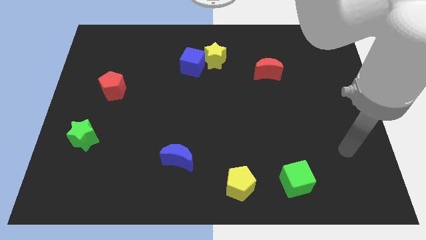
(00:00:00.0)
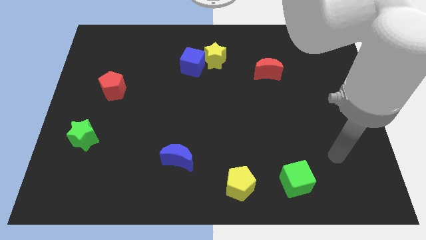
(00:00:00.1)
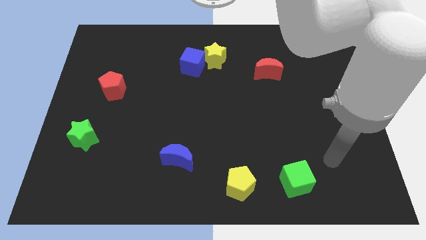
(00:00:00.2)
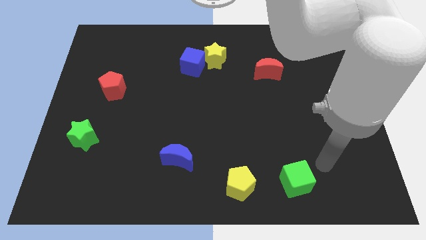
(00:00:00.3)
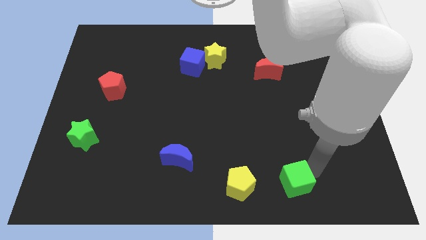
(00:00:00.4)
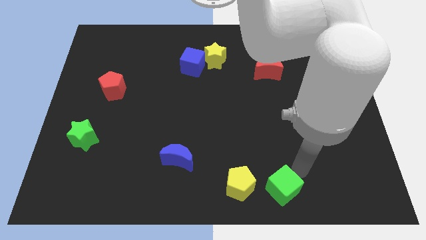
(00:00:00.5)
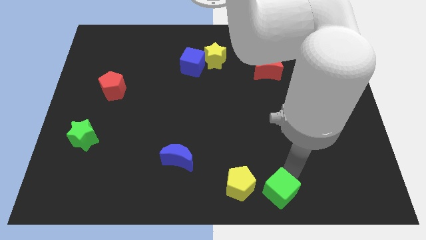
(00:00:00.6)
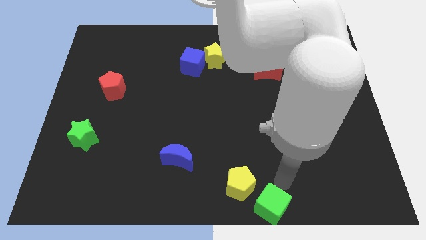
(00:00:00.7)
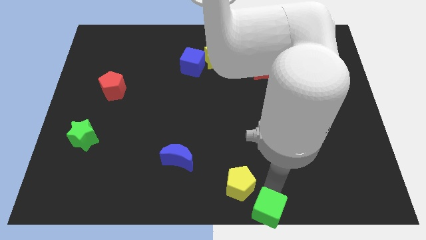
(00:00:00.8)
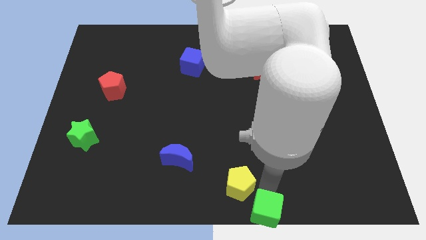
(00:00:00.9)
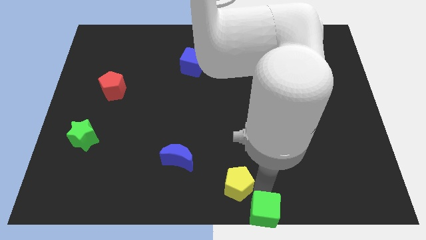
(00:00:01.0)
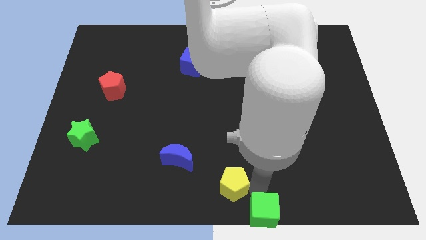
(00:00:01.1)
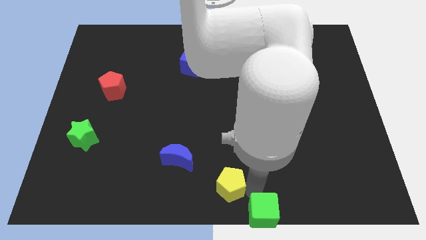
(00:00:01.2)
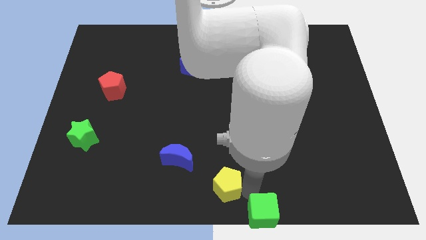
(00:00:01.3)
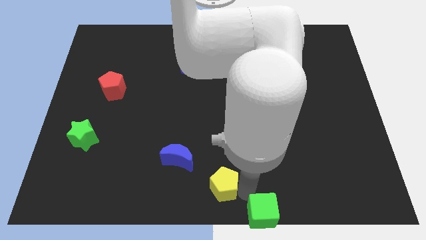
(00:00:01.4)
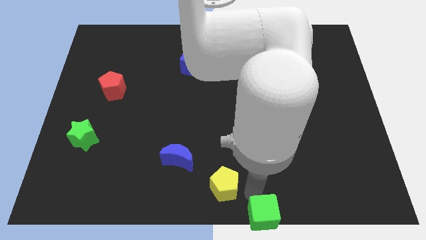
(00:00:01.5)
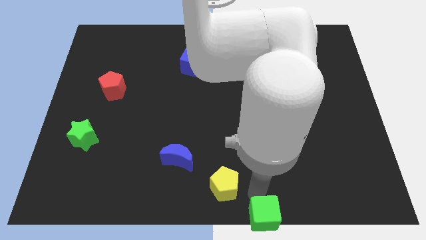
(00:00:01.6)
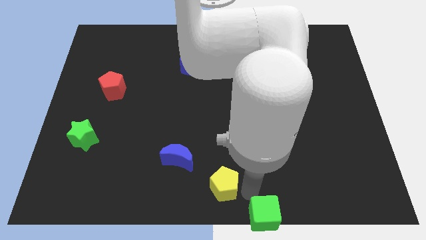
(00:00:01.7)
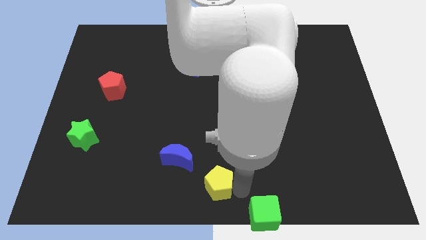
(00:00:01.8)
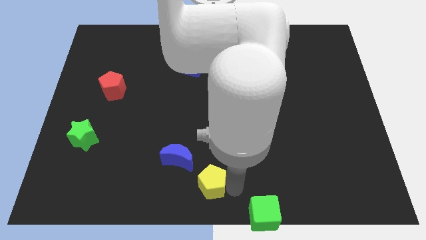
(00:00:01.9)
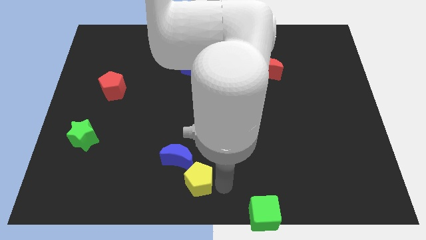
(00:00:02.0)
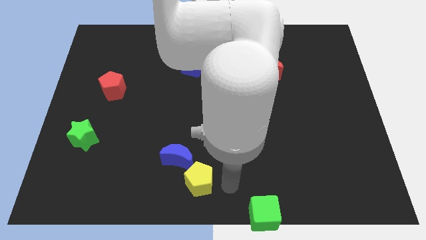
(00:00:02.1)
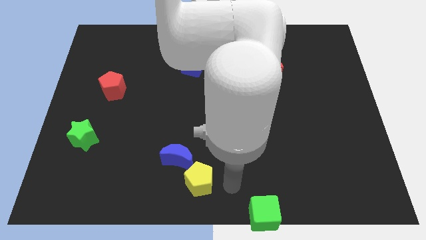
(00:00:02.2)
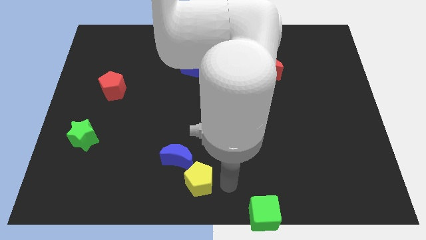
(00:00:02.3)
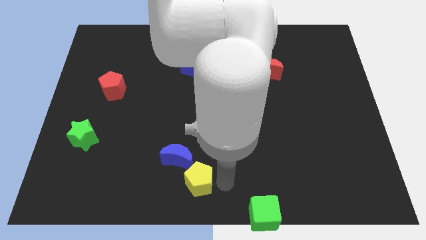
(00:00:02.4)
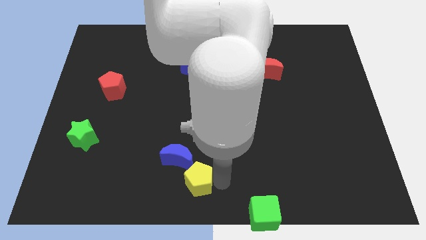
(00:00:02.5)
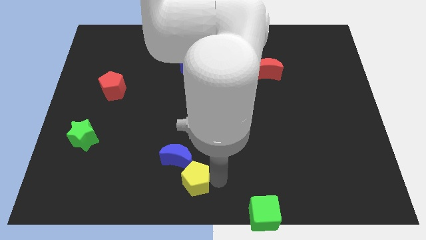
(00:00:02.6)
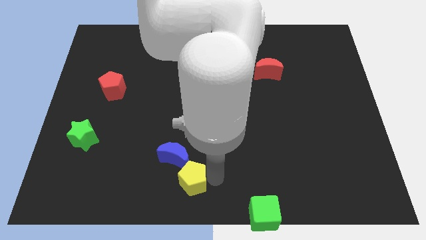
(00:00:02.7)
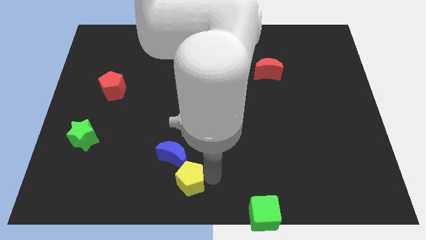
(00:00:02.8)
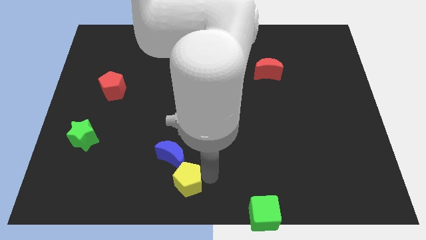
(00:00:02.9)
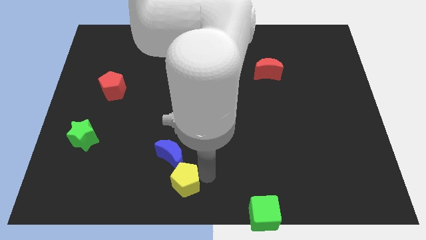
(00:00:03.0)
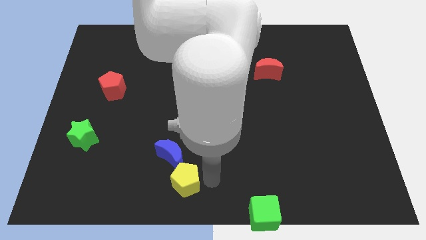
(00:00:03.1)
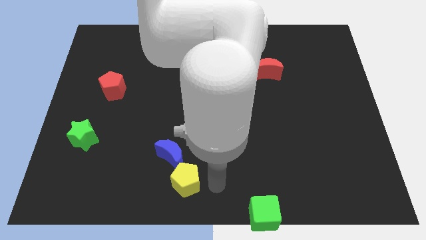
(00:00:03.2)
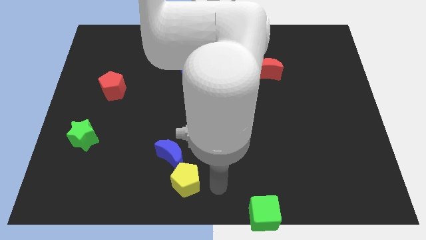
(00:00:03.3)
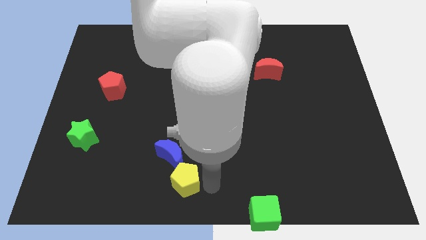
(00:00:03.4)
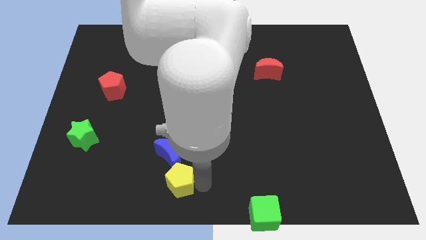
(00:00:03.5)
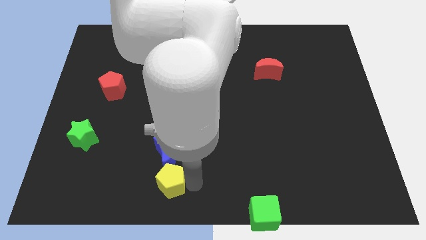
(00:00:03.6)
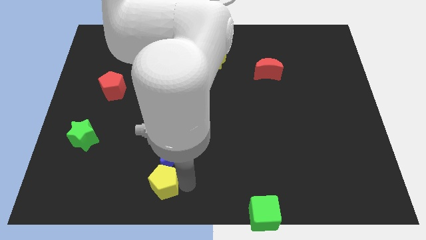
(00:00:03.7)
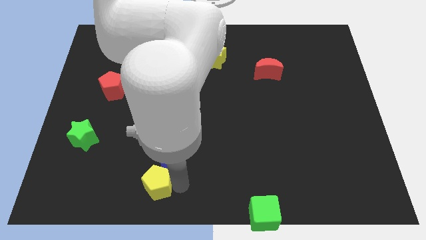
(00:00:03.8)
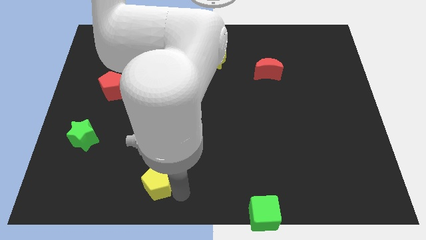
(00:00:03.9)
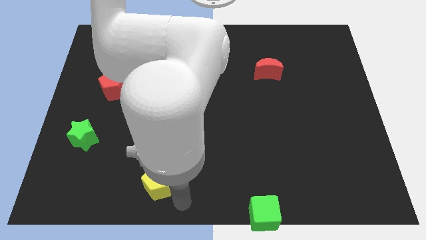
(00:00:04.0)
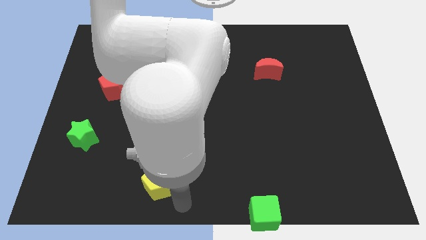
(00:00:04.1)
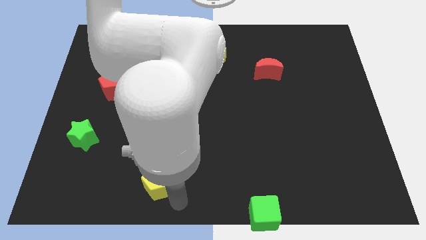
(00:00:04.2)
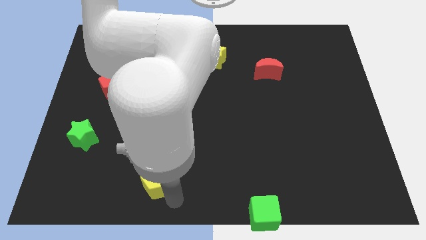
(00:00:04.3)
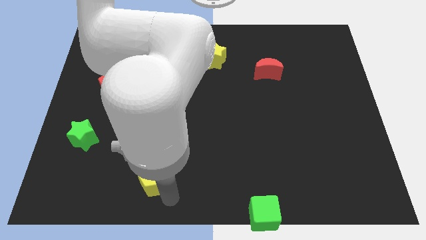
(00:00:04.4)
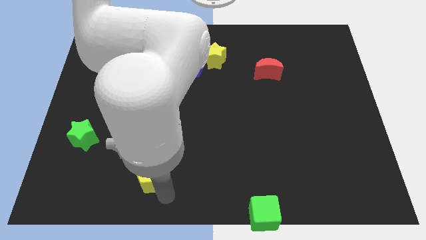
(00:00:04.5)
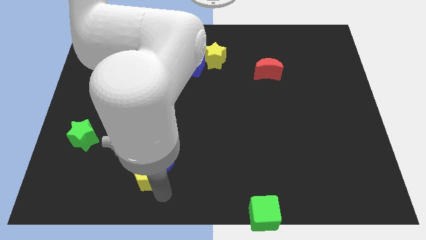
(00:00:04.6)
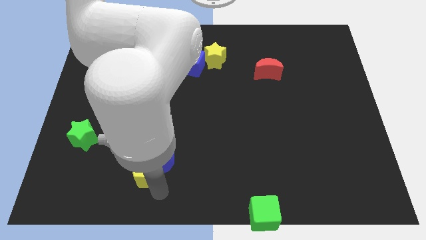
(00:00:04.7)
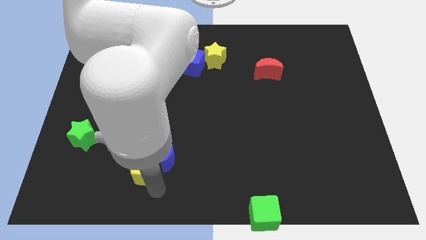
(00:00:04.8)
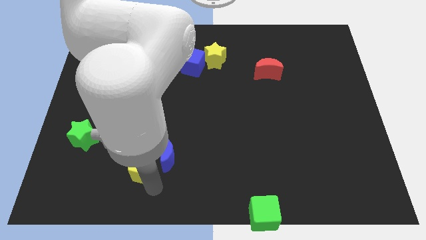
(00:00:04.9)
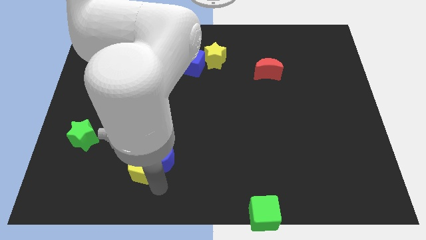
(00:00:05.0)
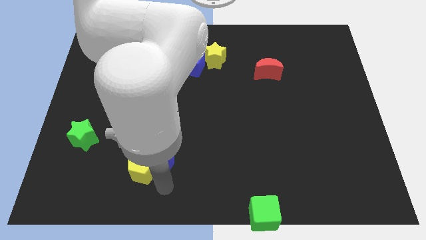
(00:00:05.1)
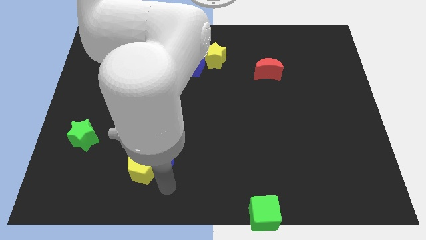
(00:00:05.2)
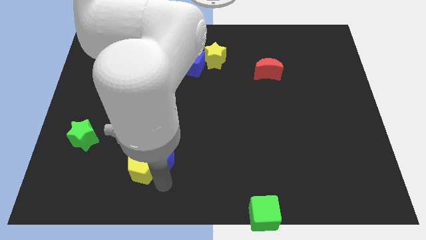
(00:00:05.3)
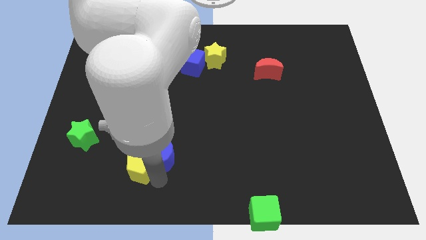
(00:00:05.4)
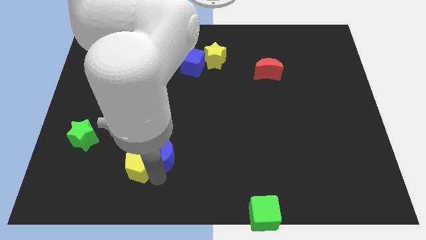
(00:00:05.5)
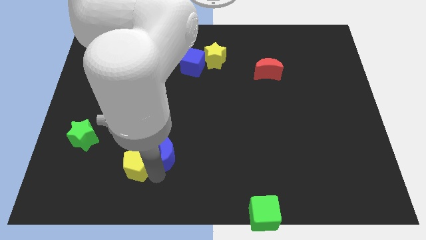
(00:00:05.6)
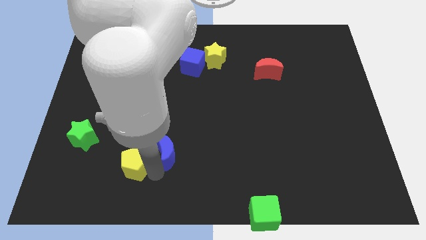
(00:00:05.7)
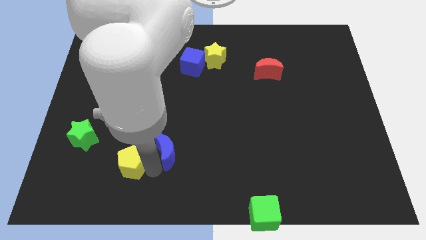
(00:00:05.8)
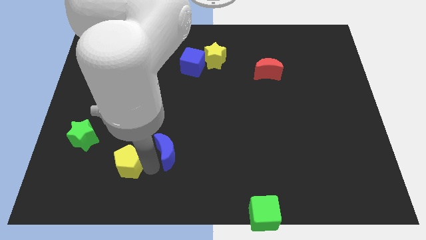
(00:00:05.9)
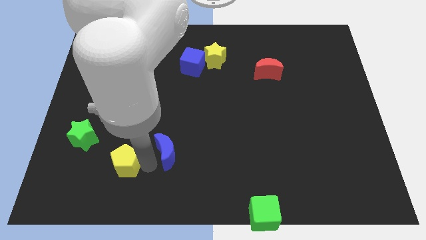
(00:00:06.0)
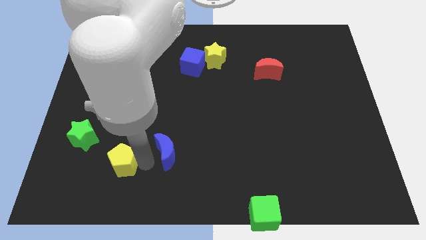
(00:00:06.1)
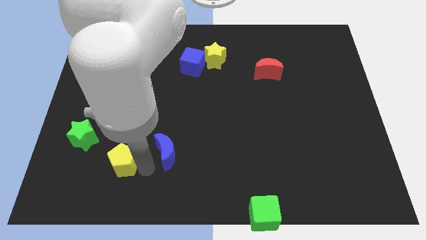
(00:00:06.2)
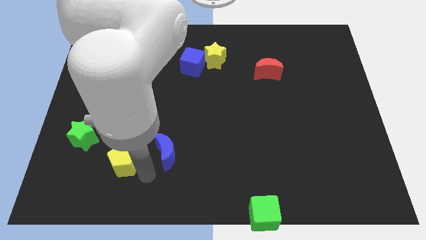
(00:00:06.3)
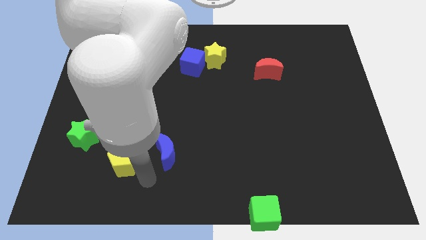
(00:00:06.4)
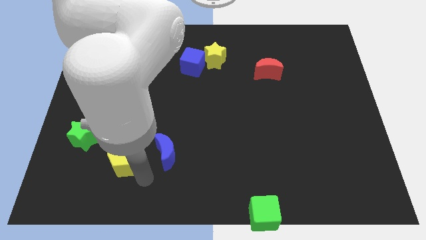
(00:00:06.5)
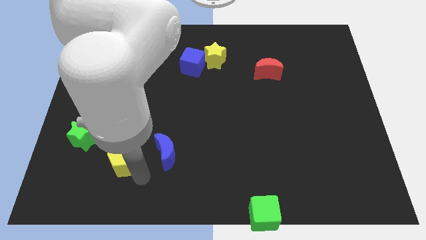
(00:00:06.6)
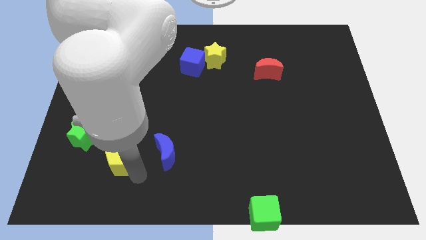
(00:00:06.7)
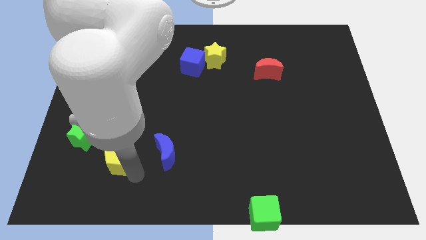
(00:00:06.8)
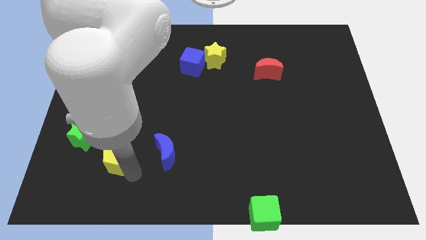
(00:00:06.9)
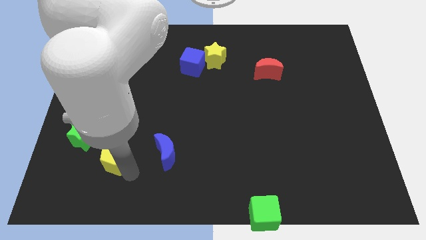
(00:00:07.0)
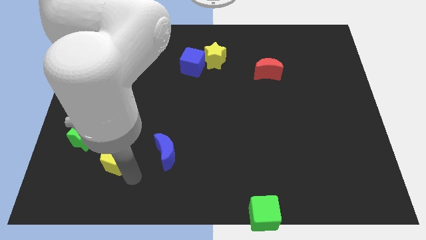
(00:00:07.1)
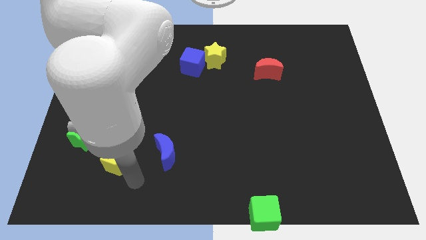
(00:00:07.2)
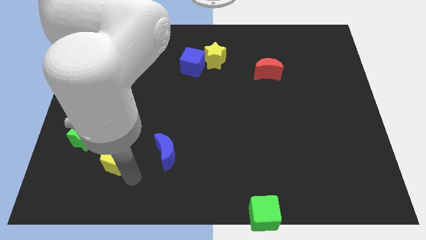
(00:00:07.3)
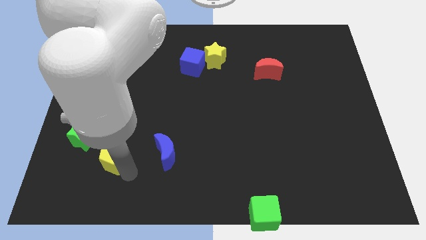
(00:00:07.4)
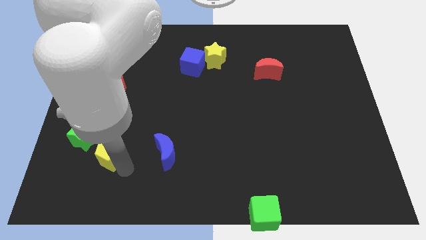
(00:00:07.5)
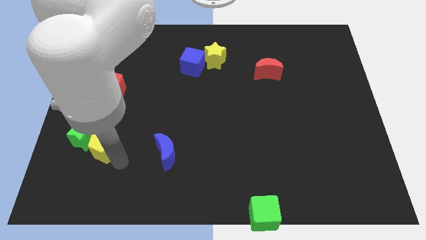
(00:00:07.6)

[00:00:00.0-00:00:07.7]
slide the yellow pentagon towards the green star
